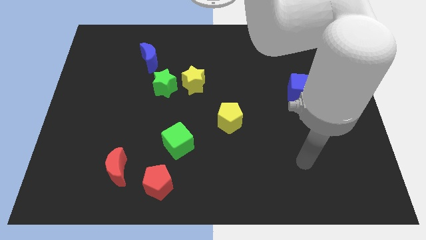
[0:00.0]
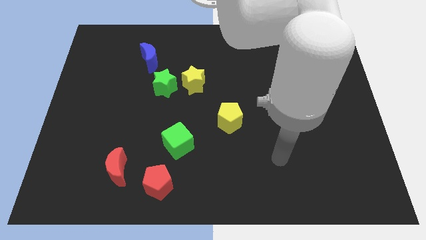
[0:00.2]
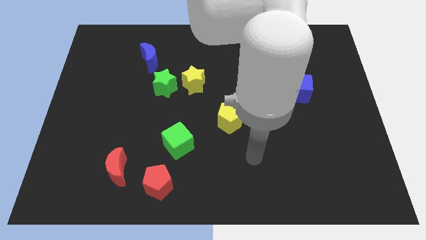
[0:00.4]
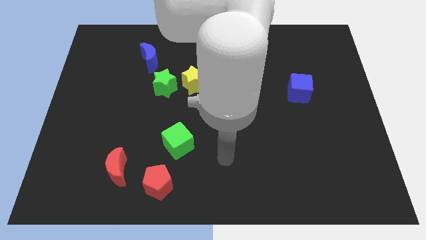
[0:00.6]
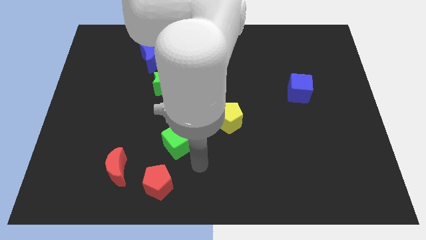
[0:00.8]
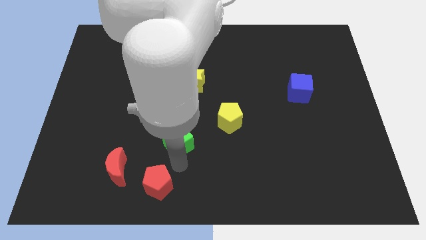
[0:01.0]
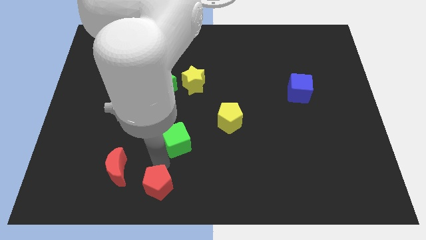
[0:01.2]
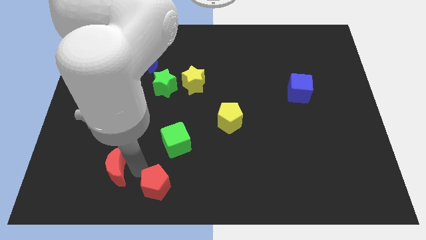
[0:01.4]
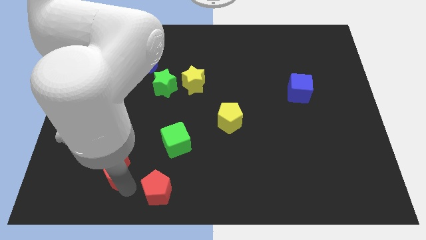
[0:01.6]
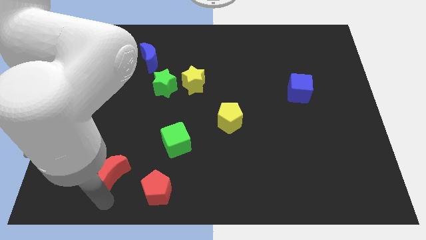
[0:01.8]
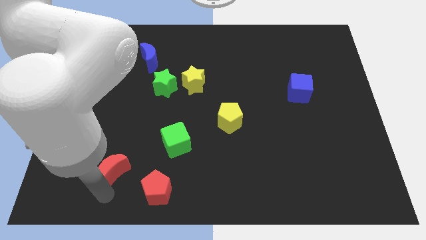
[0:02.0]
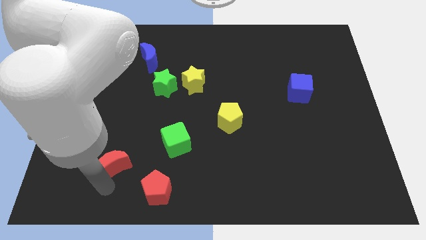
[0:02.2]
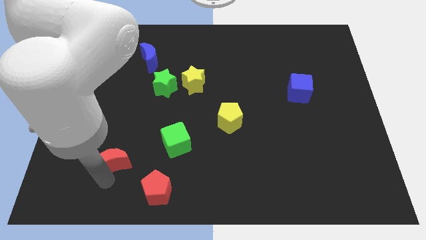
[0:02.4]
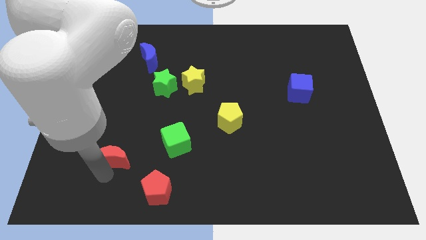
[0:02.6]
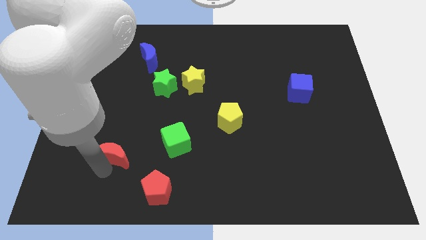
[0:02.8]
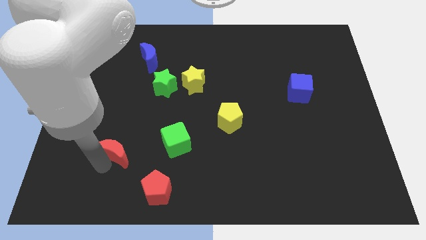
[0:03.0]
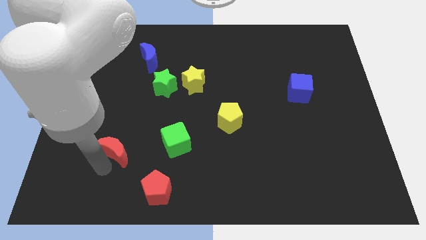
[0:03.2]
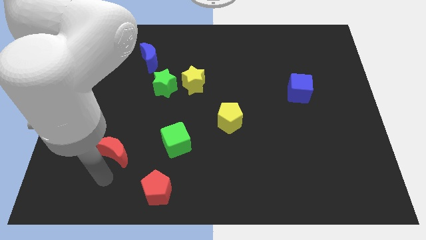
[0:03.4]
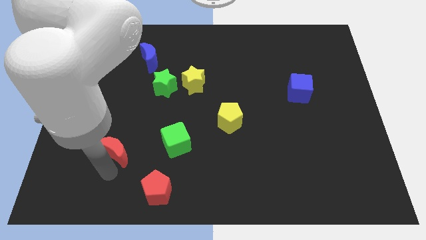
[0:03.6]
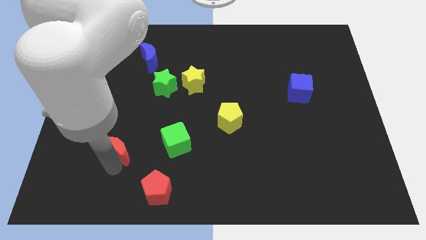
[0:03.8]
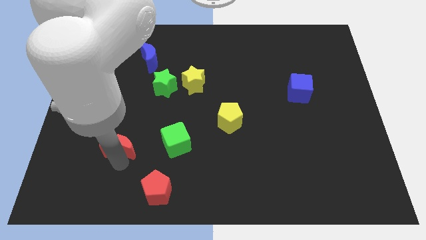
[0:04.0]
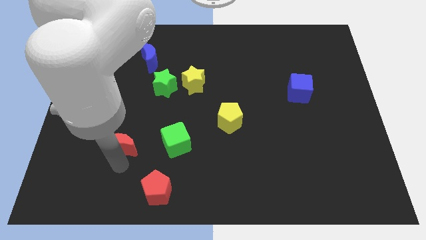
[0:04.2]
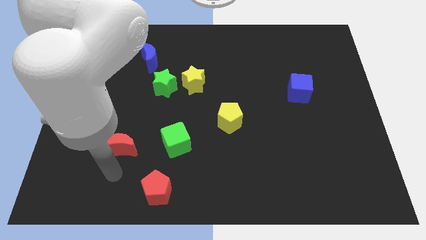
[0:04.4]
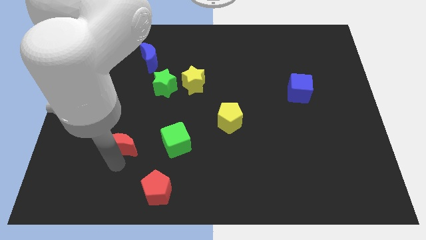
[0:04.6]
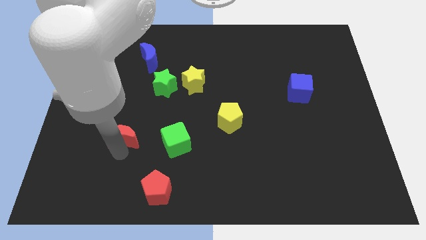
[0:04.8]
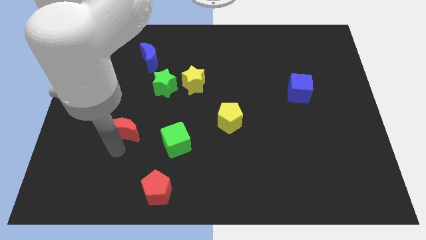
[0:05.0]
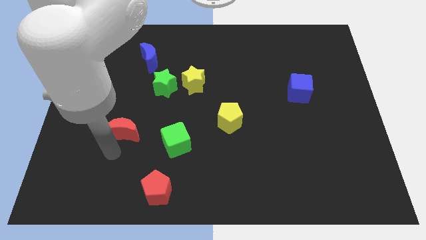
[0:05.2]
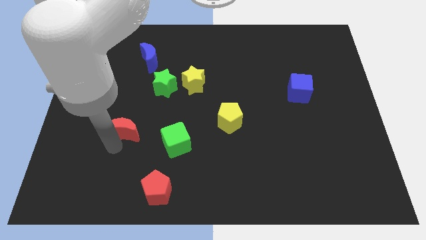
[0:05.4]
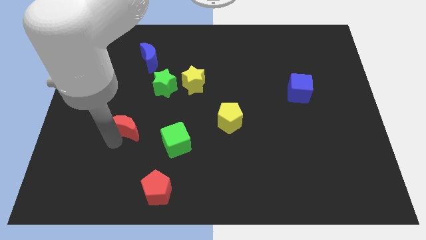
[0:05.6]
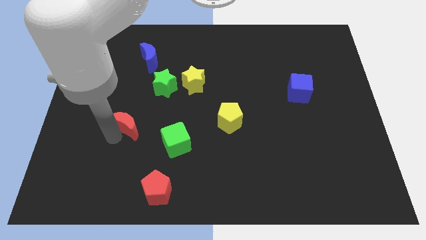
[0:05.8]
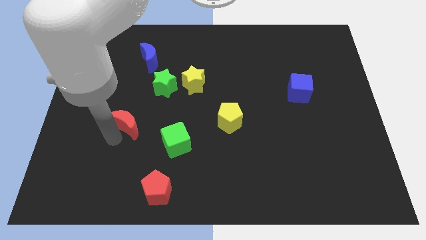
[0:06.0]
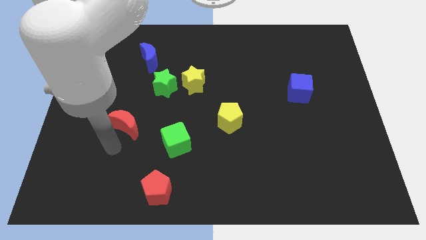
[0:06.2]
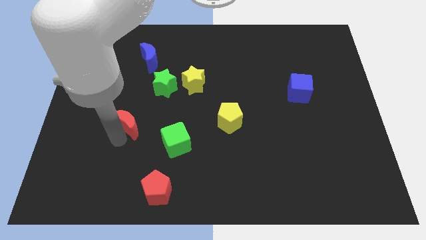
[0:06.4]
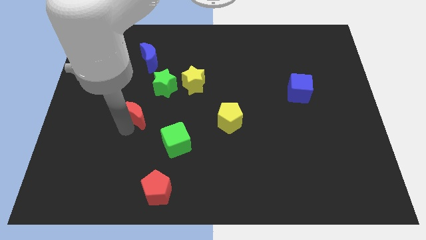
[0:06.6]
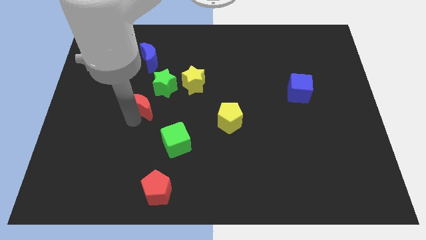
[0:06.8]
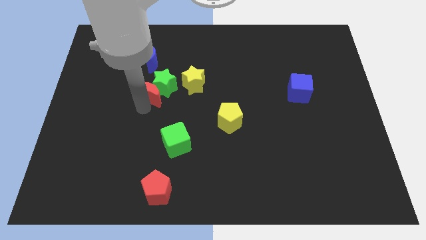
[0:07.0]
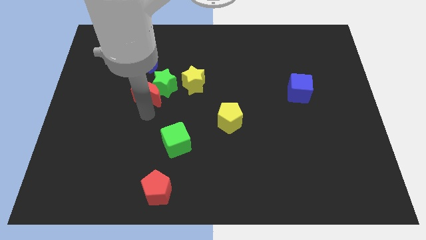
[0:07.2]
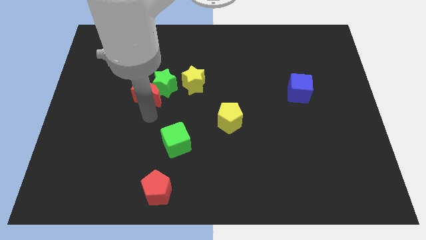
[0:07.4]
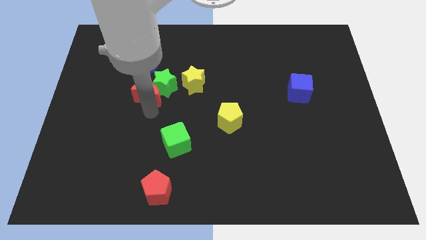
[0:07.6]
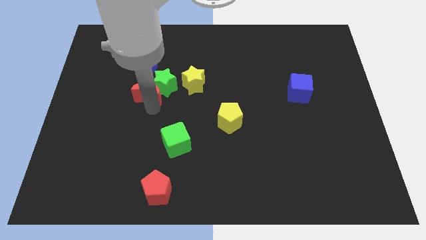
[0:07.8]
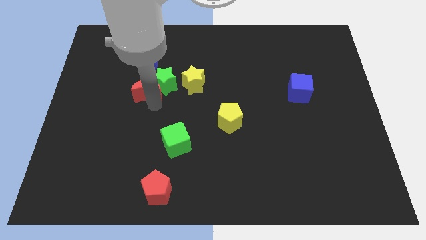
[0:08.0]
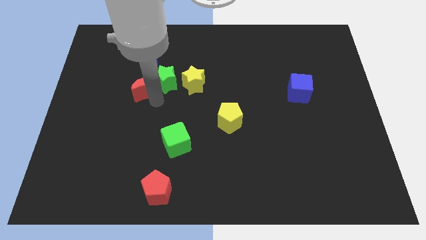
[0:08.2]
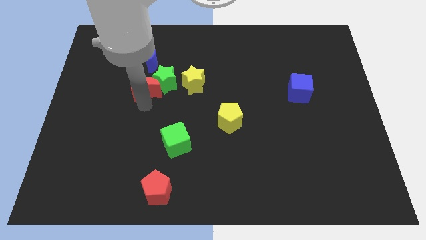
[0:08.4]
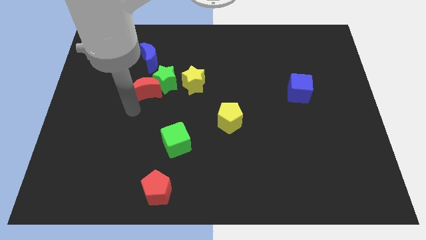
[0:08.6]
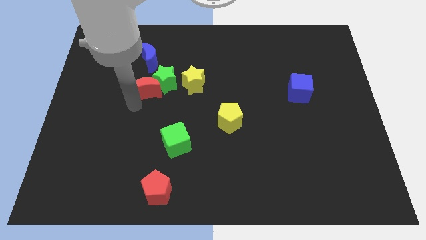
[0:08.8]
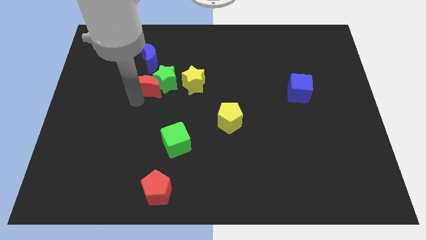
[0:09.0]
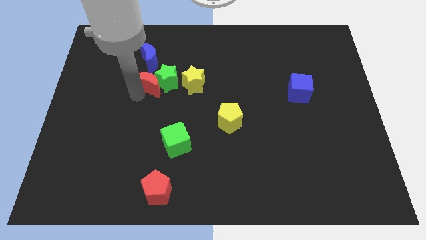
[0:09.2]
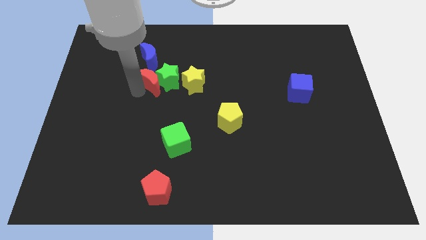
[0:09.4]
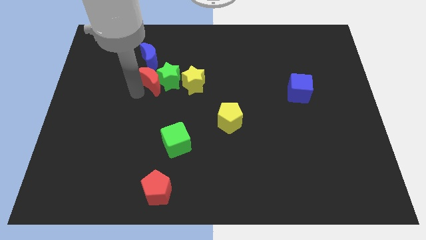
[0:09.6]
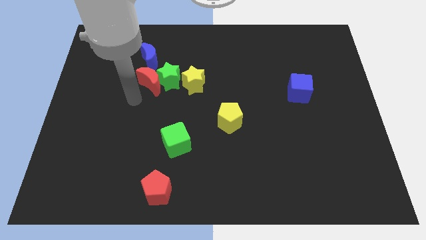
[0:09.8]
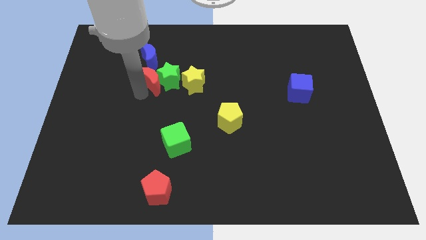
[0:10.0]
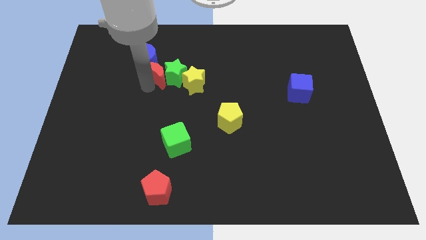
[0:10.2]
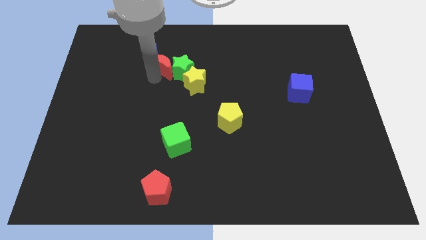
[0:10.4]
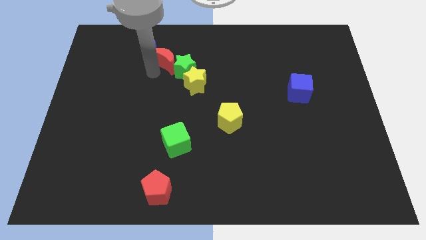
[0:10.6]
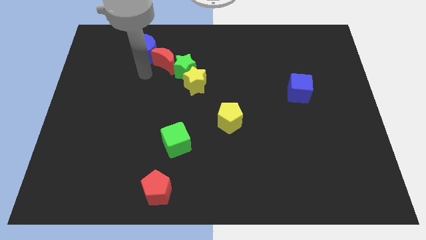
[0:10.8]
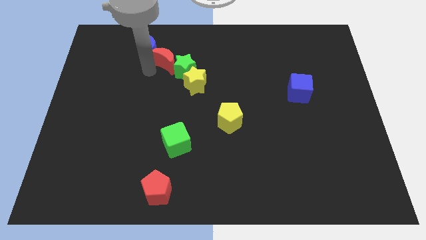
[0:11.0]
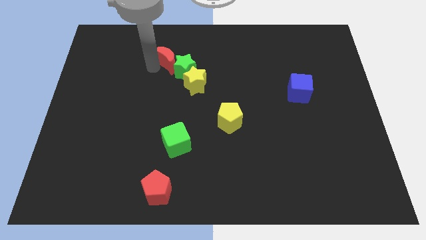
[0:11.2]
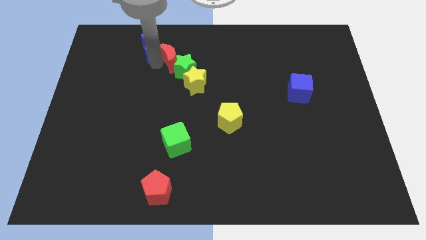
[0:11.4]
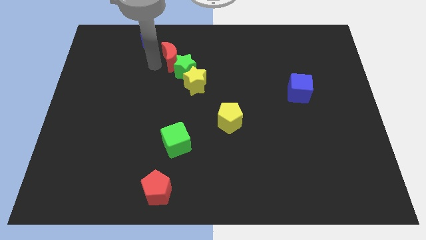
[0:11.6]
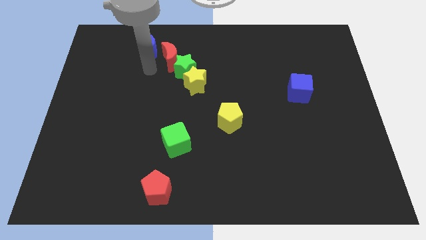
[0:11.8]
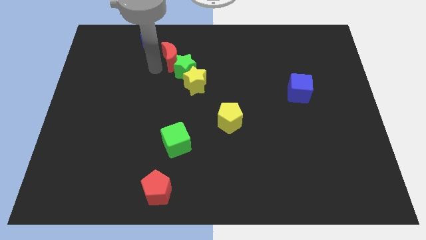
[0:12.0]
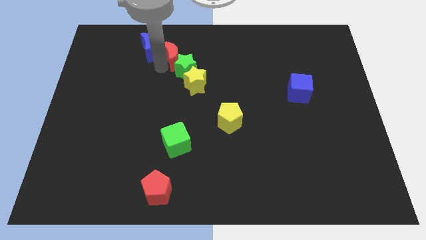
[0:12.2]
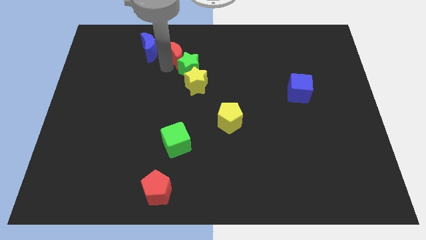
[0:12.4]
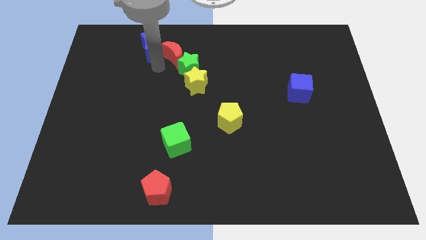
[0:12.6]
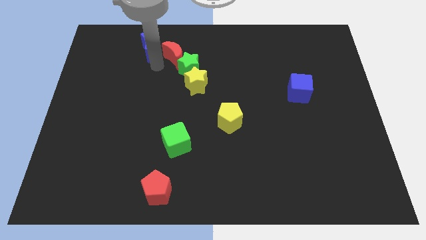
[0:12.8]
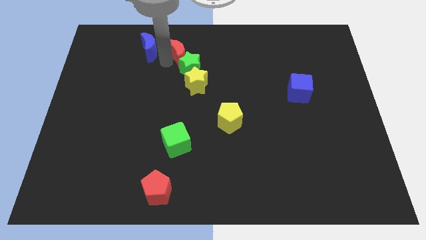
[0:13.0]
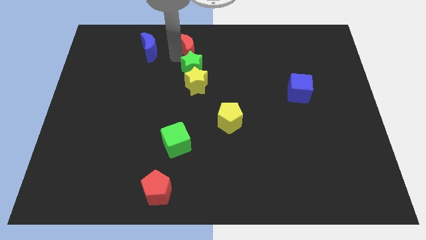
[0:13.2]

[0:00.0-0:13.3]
slide the red moon to the top

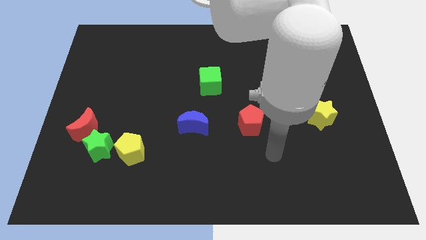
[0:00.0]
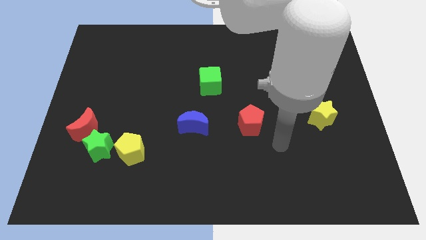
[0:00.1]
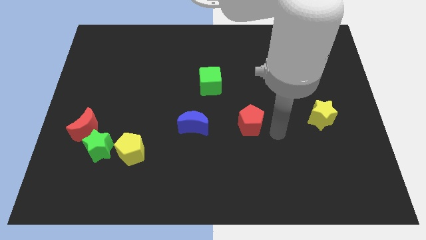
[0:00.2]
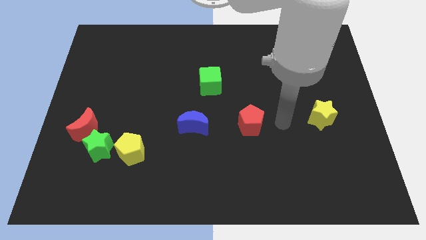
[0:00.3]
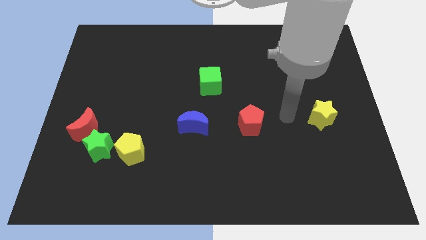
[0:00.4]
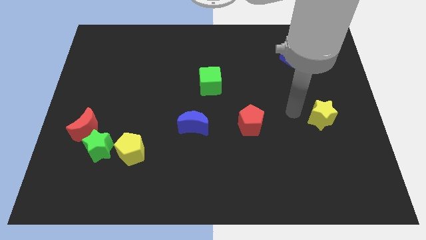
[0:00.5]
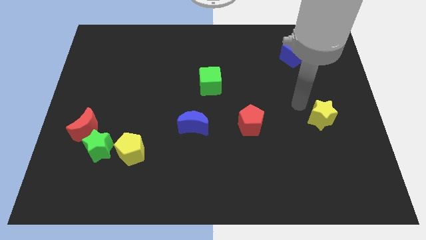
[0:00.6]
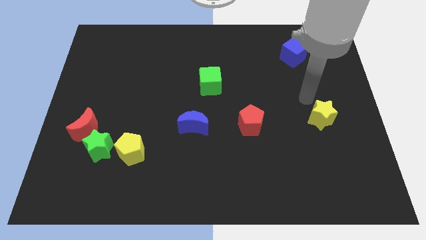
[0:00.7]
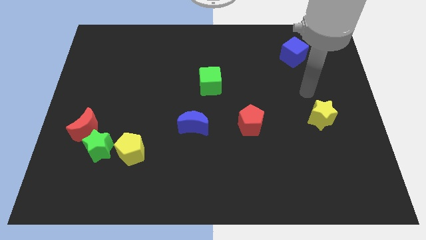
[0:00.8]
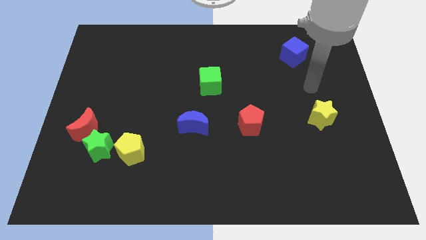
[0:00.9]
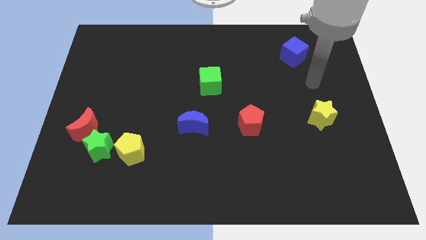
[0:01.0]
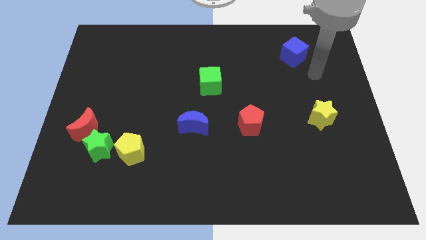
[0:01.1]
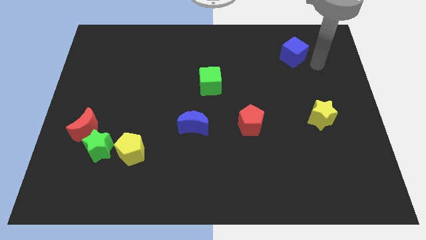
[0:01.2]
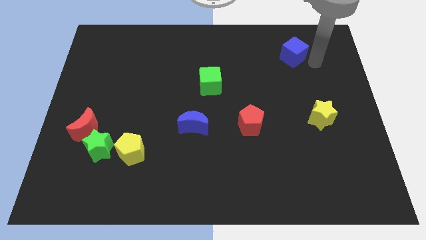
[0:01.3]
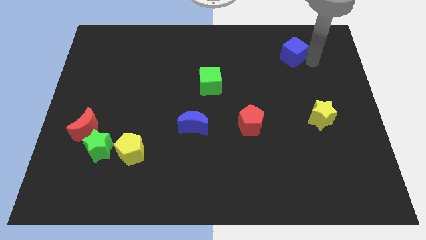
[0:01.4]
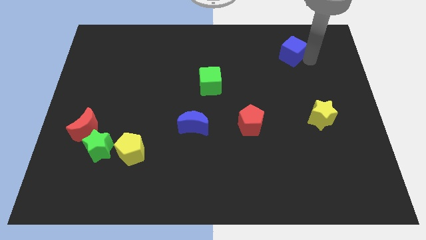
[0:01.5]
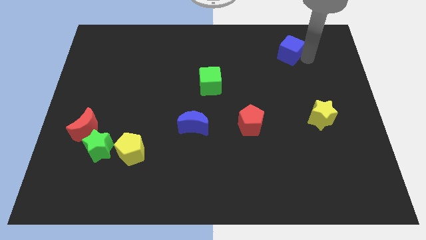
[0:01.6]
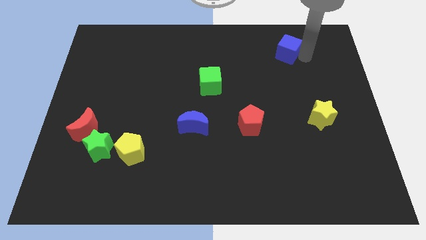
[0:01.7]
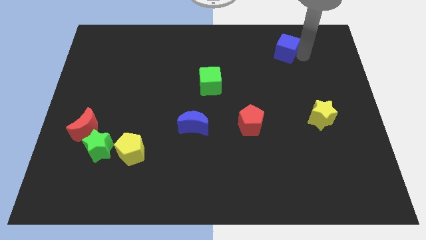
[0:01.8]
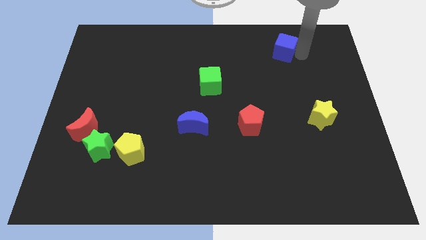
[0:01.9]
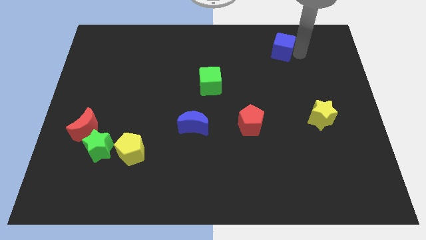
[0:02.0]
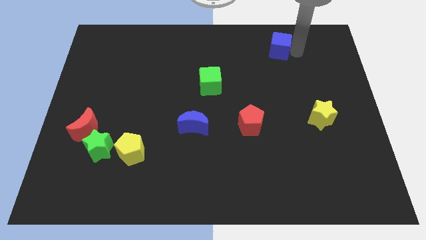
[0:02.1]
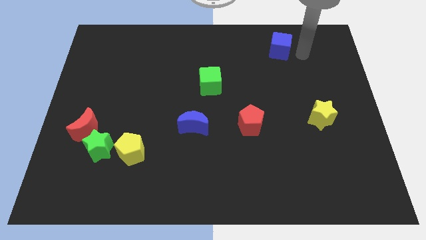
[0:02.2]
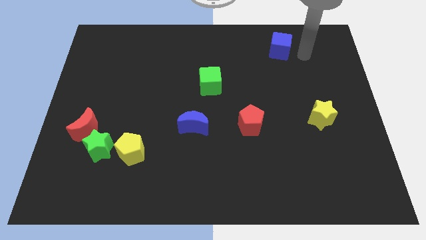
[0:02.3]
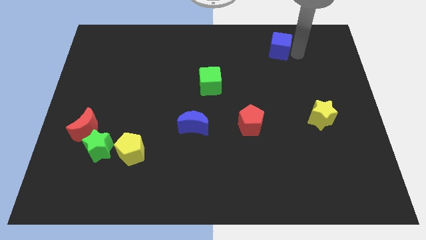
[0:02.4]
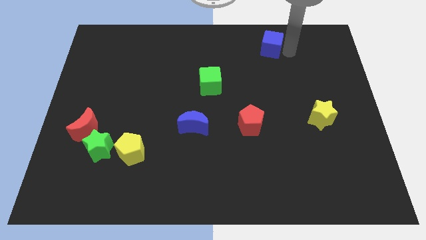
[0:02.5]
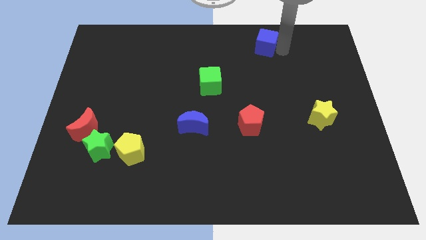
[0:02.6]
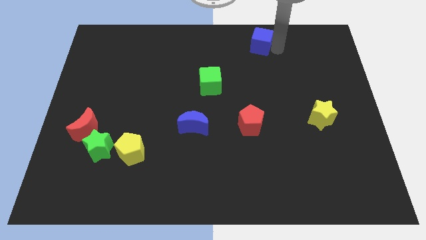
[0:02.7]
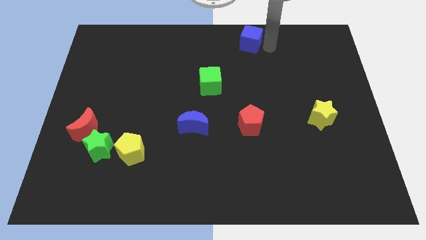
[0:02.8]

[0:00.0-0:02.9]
put the blue cube to the towards your base
